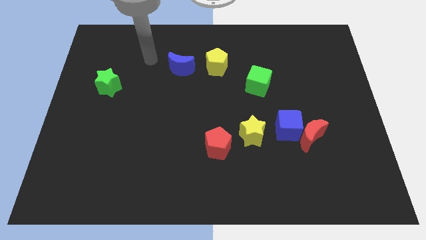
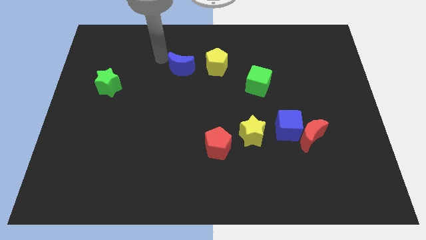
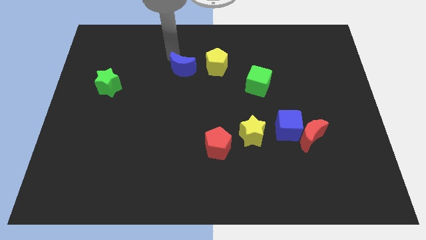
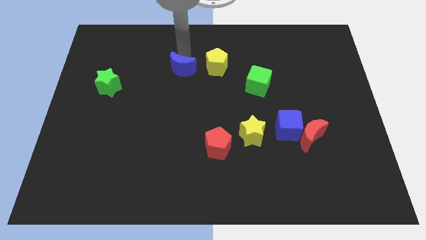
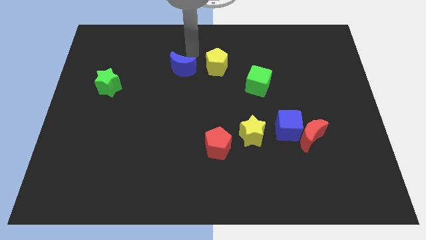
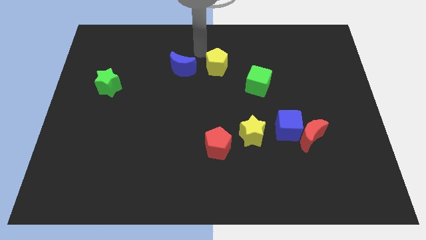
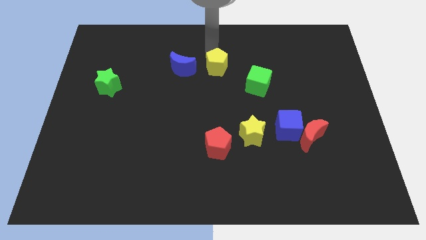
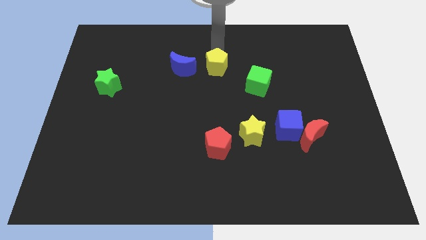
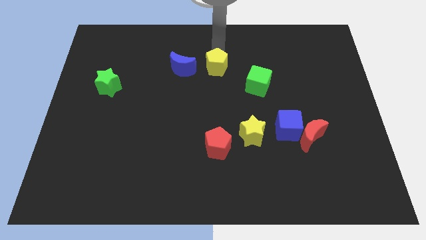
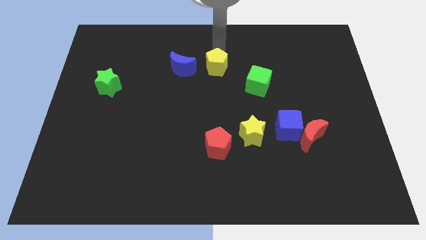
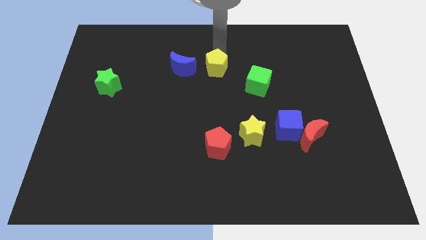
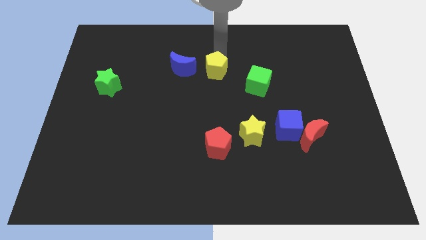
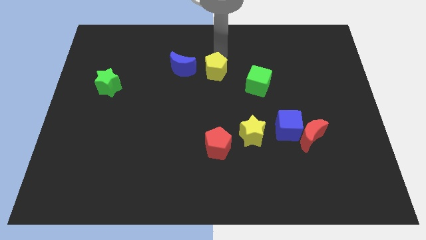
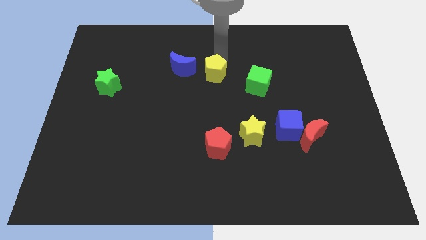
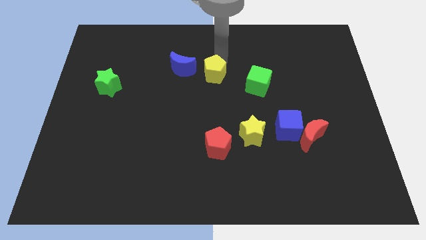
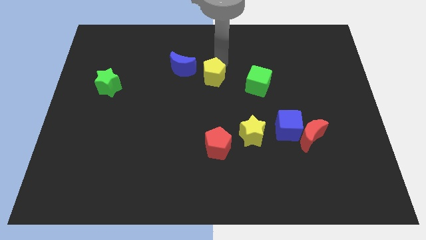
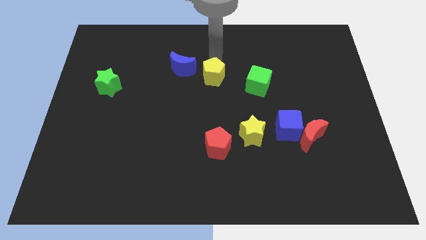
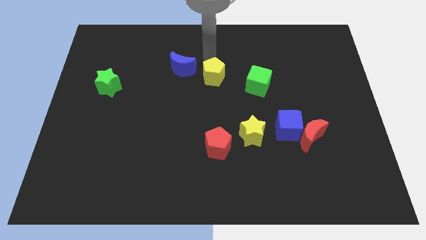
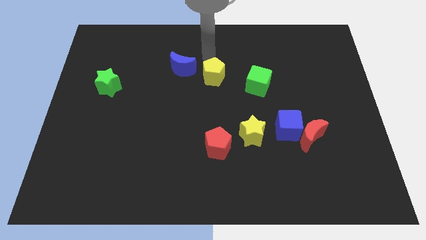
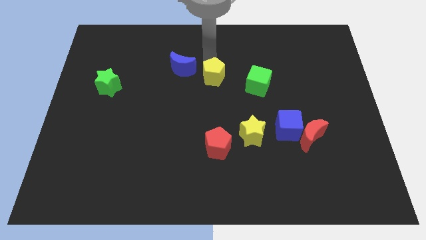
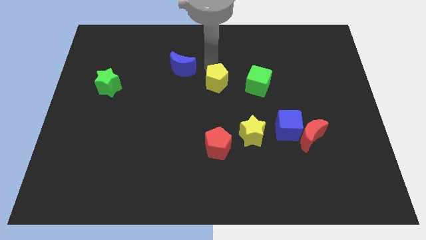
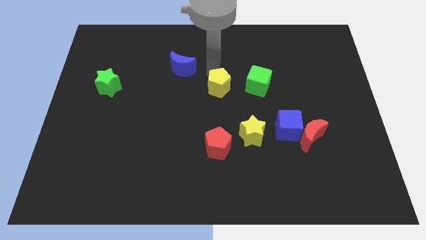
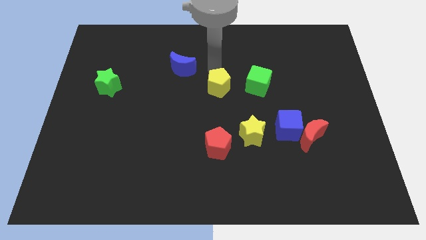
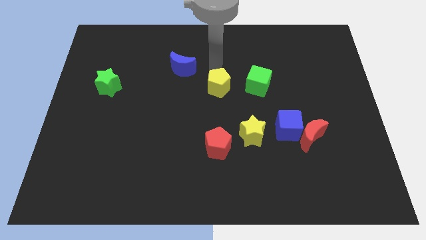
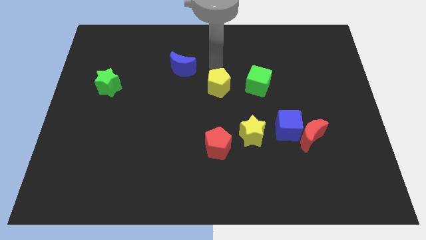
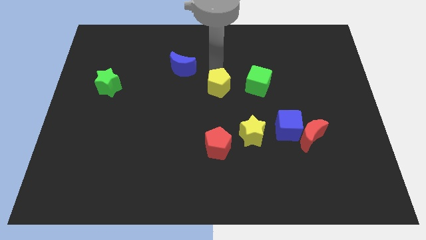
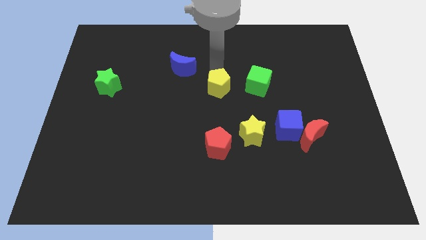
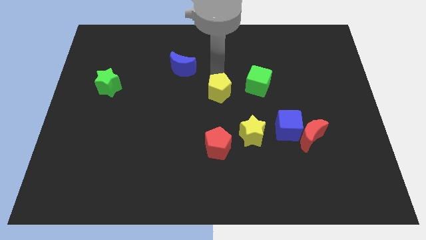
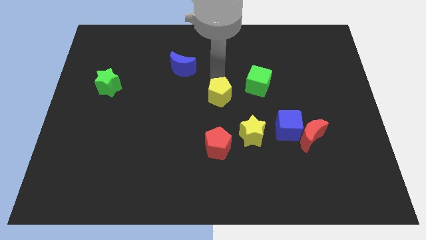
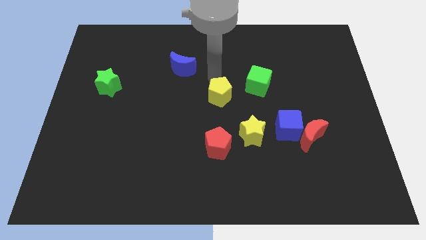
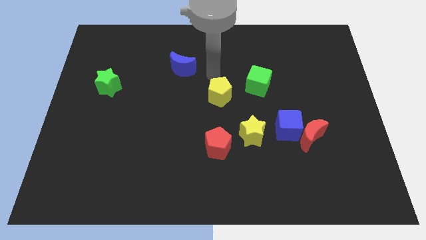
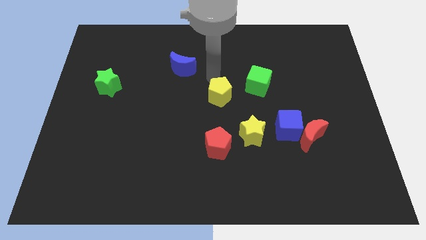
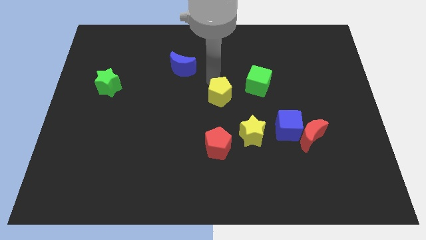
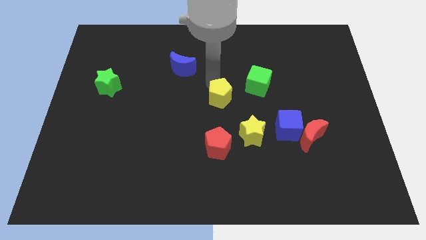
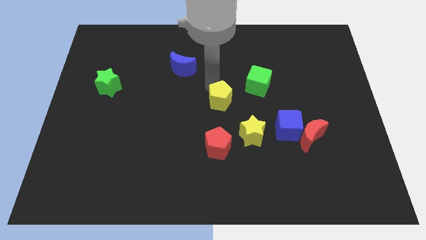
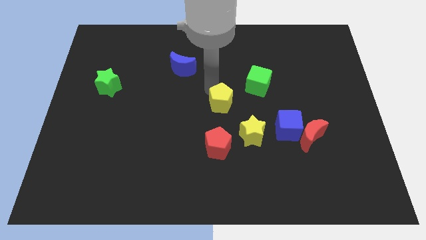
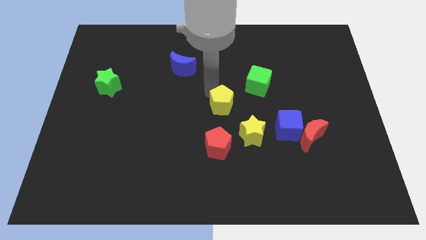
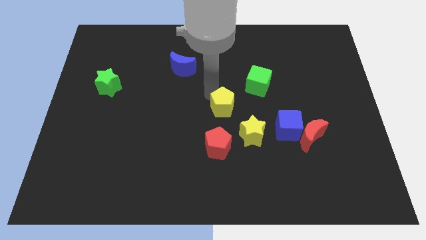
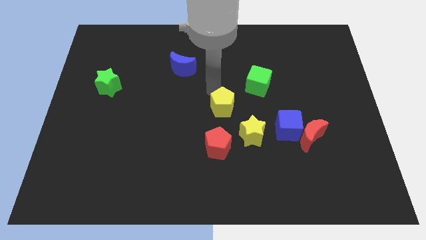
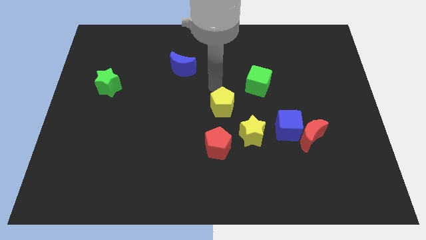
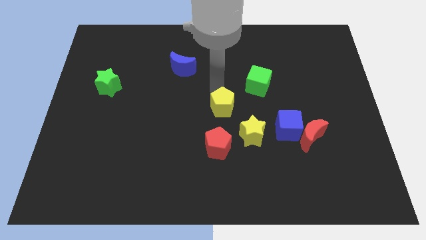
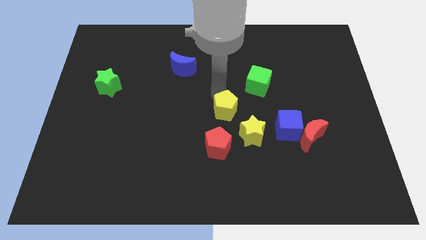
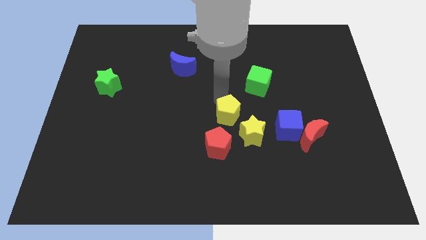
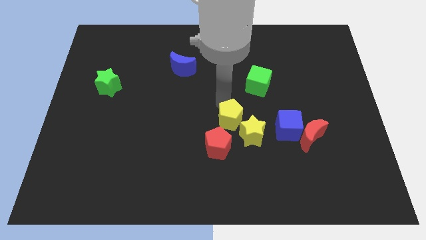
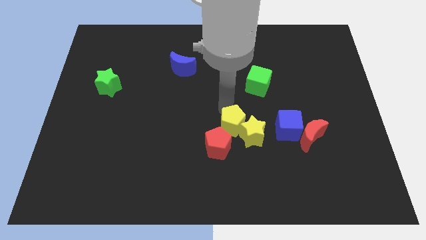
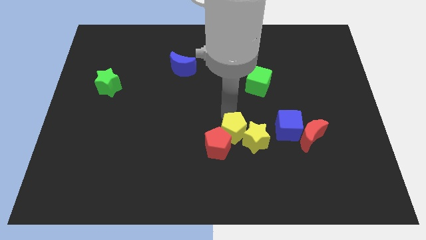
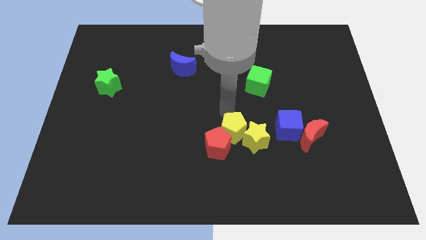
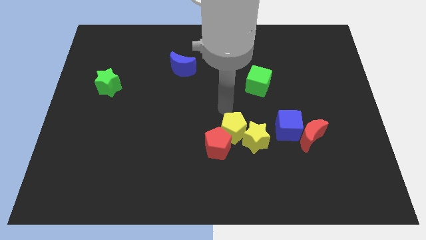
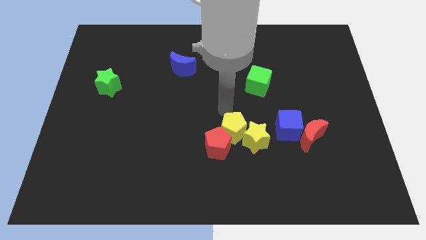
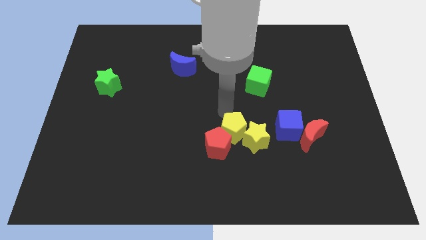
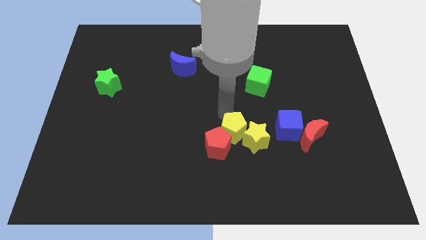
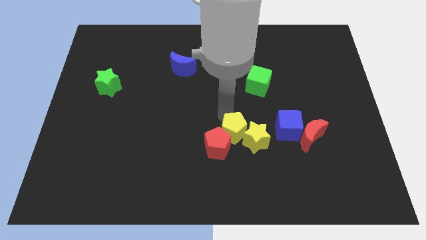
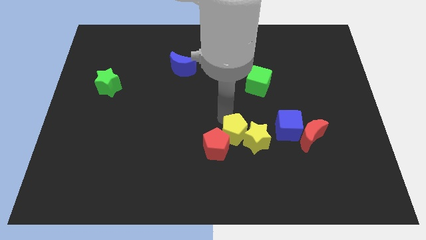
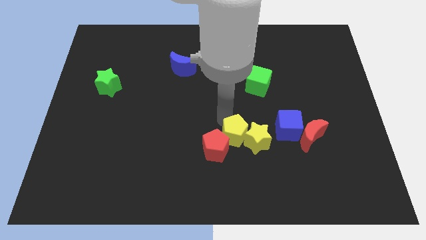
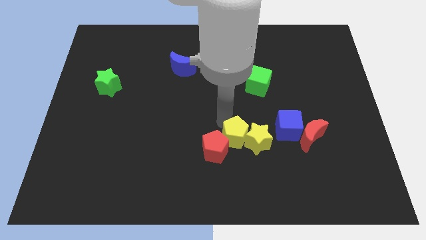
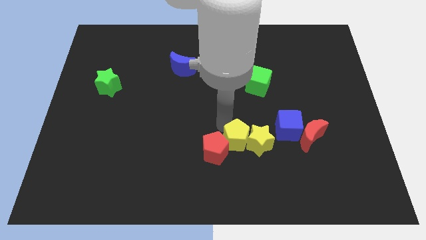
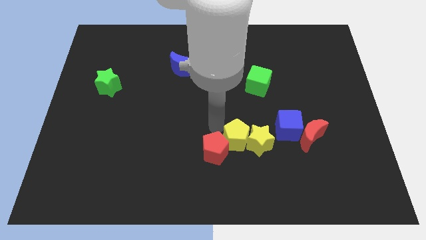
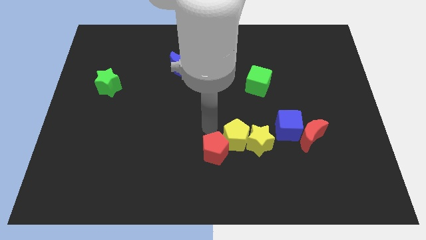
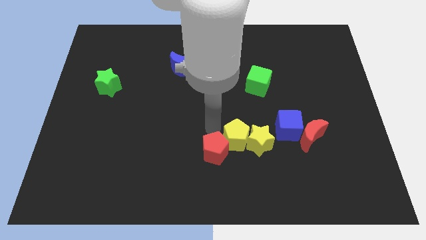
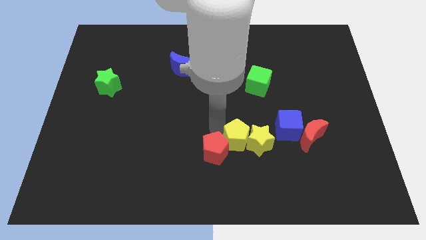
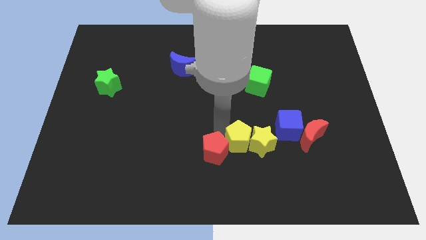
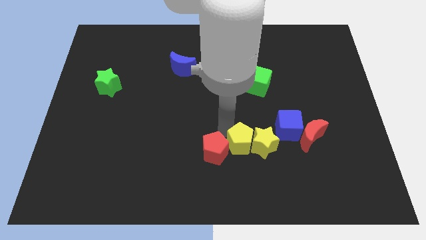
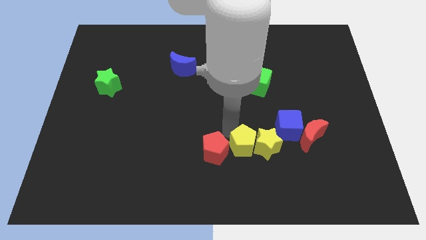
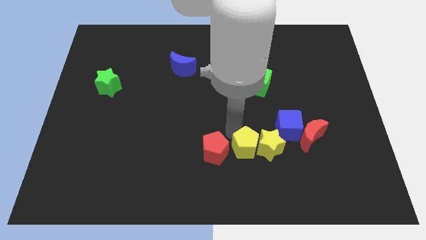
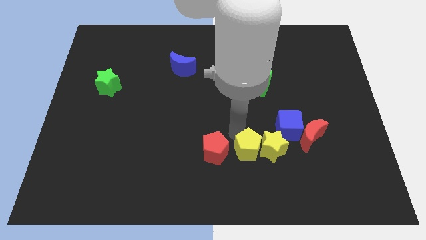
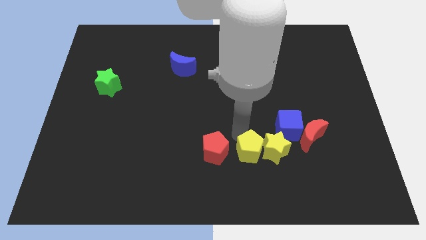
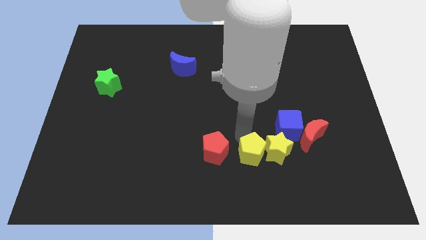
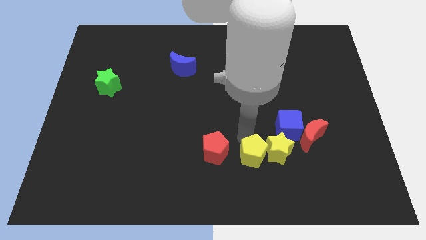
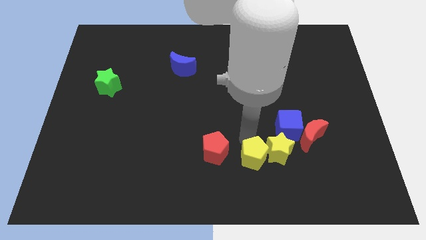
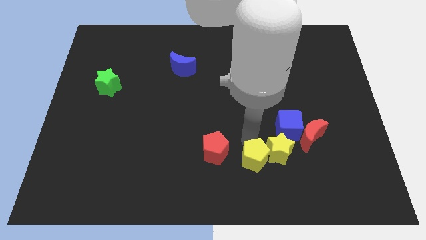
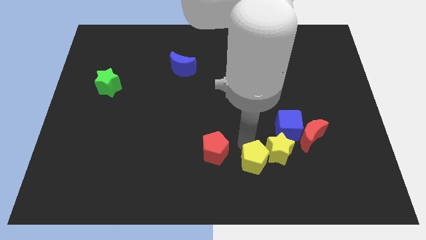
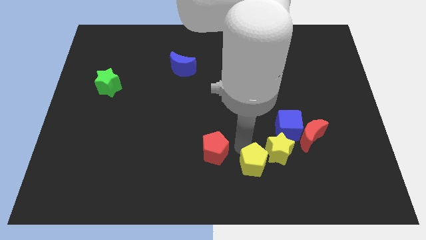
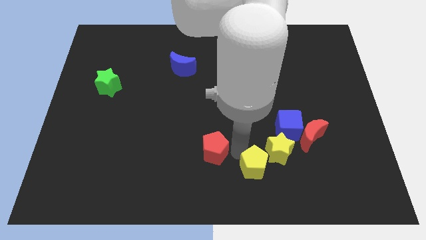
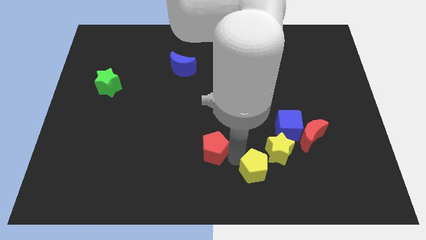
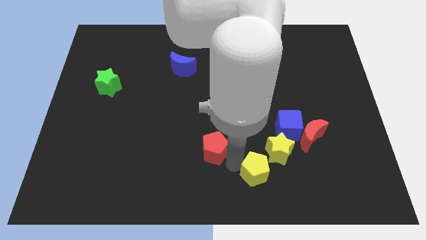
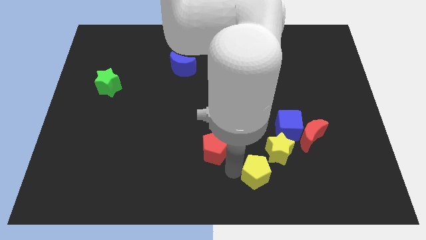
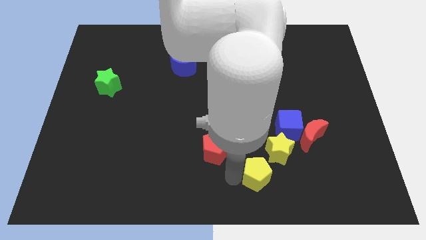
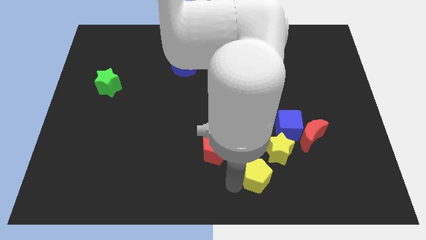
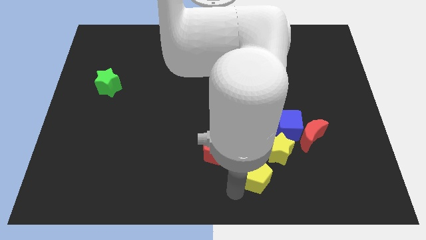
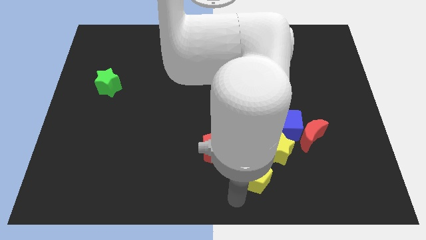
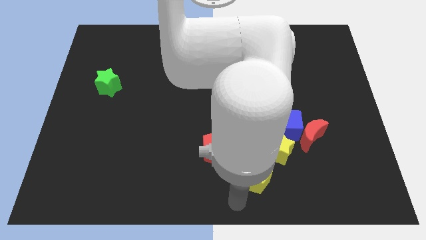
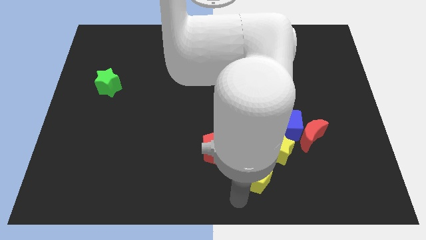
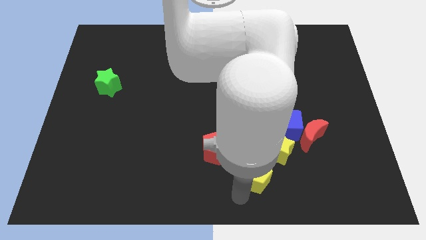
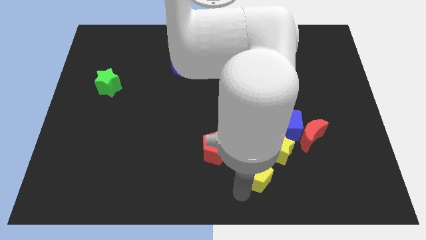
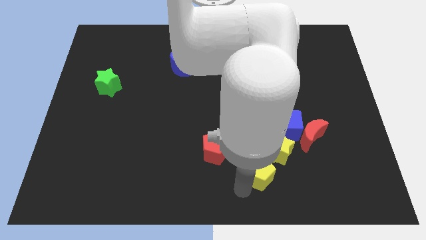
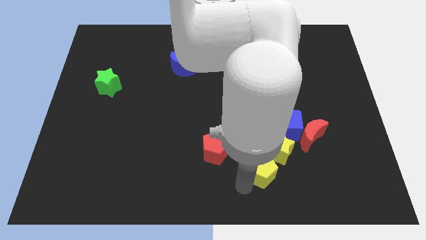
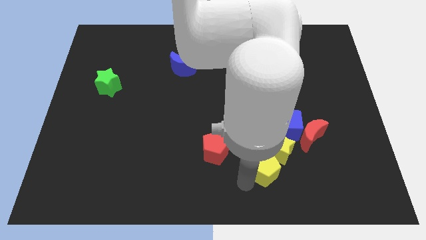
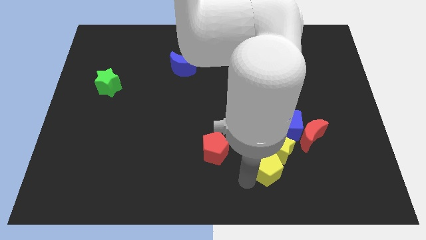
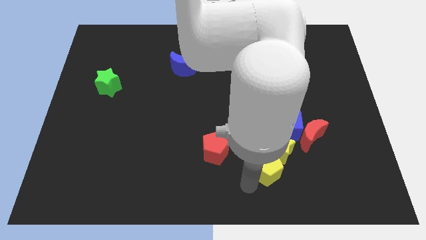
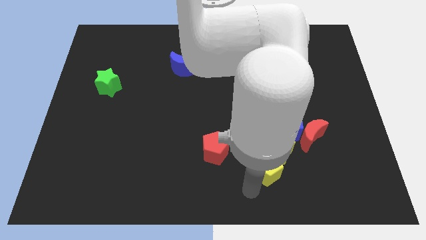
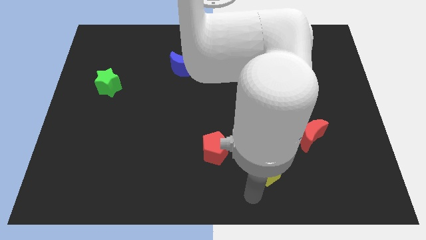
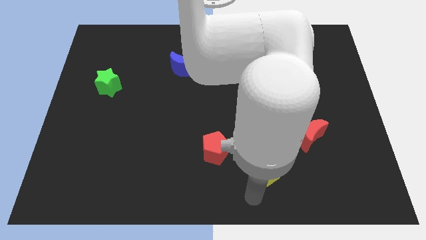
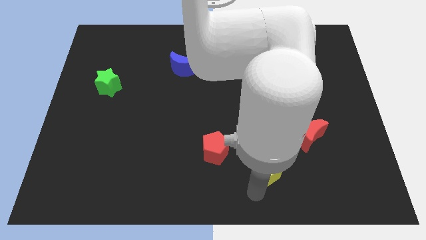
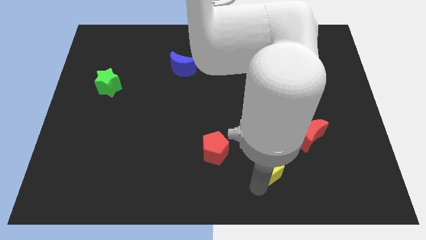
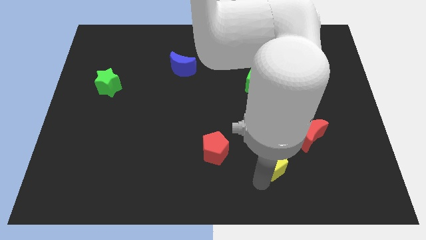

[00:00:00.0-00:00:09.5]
slide the yellow pentagon to the bottom left of the red moon
